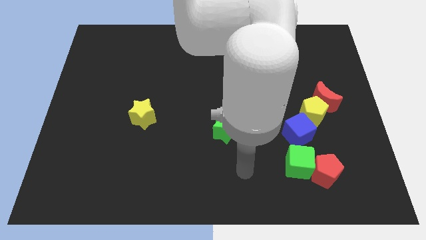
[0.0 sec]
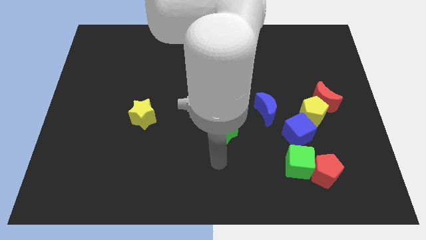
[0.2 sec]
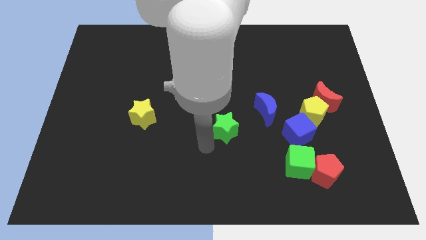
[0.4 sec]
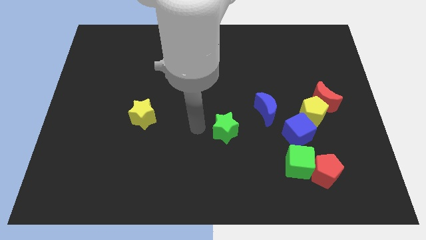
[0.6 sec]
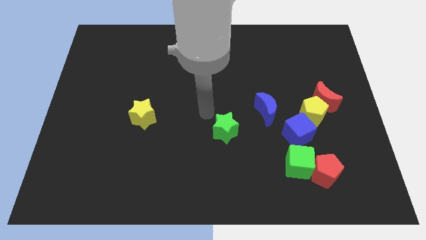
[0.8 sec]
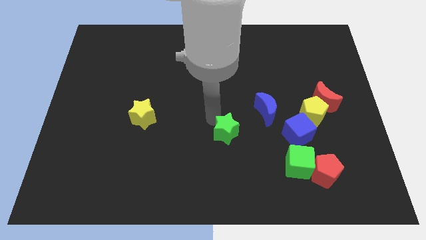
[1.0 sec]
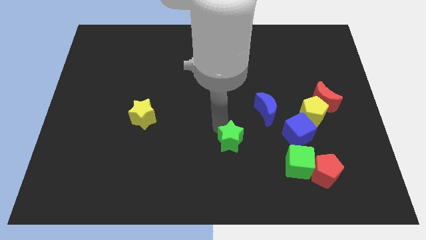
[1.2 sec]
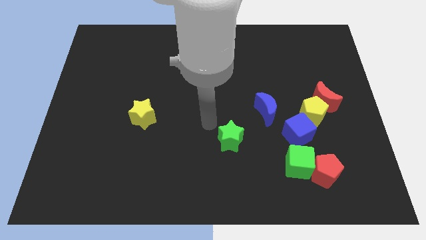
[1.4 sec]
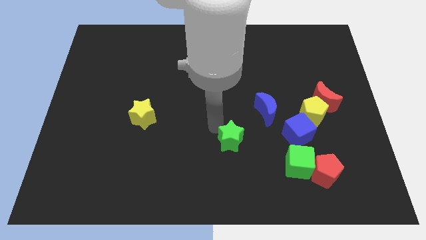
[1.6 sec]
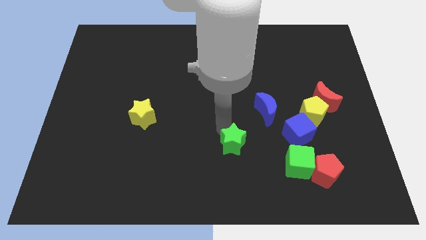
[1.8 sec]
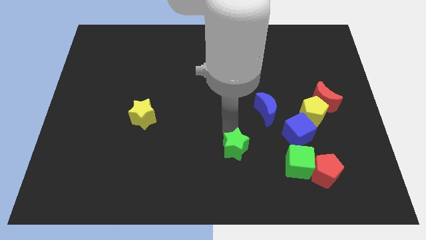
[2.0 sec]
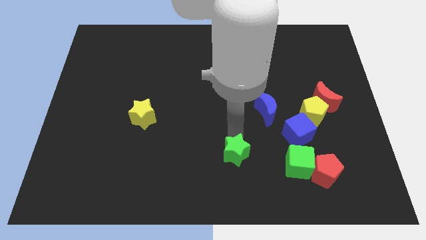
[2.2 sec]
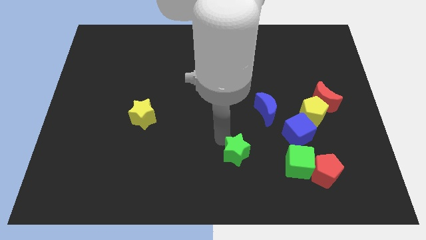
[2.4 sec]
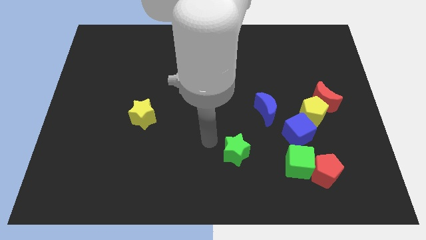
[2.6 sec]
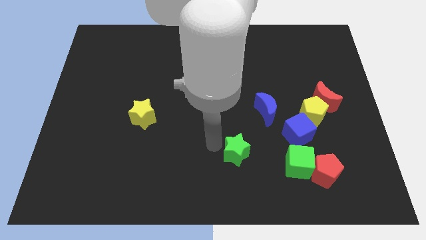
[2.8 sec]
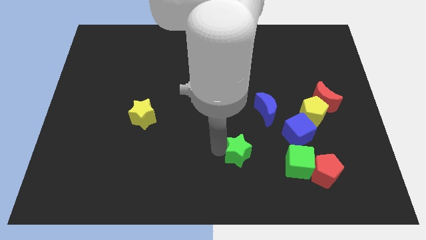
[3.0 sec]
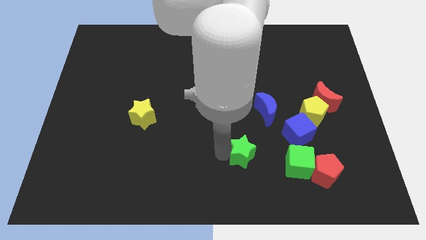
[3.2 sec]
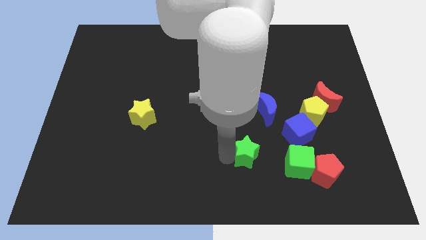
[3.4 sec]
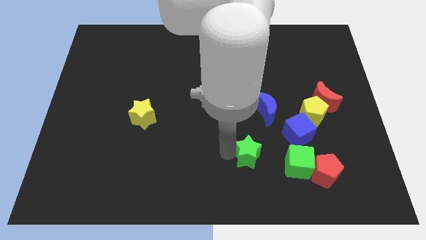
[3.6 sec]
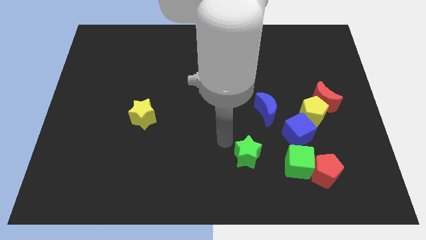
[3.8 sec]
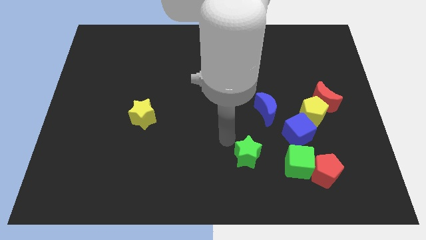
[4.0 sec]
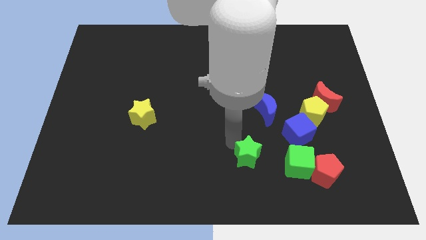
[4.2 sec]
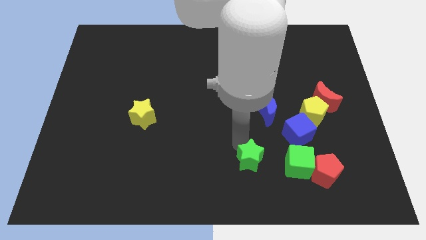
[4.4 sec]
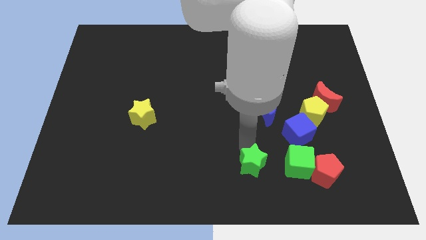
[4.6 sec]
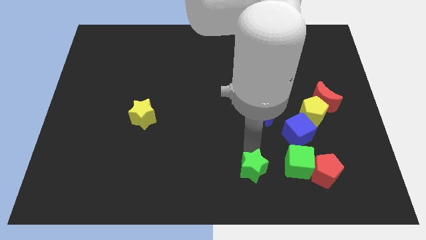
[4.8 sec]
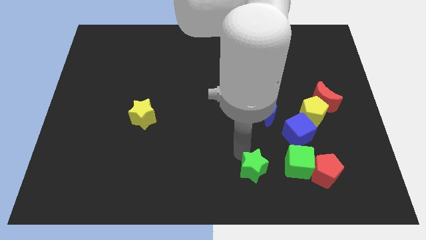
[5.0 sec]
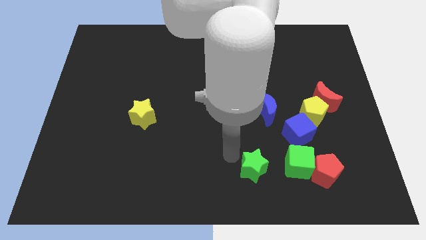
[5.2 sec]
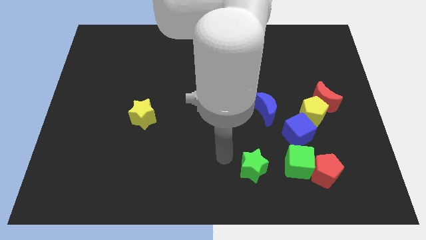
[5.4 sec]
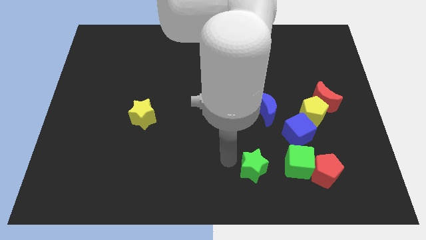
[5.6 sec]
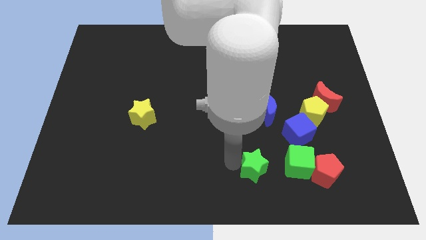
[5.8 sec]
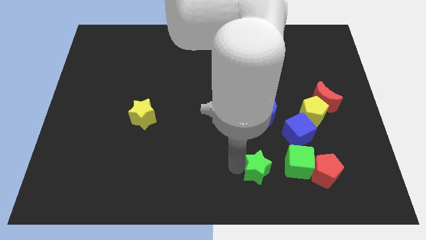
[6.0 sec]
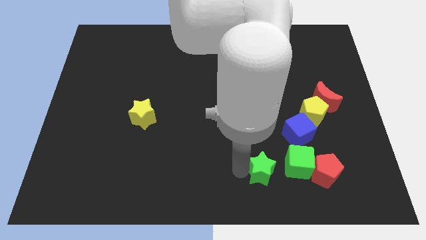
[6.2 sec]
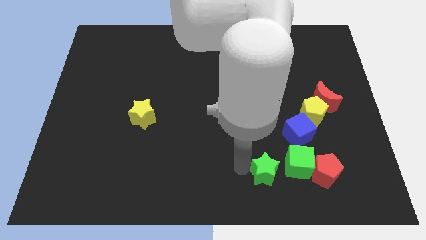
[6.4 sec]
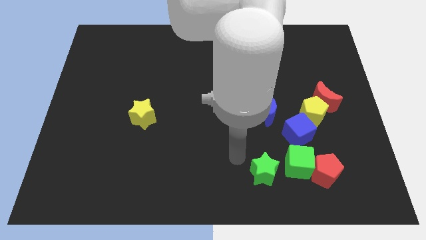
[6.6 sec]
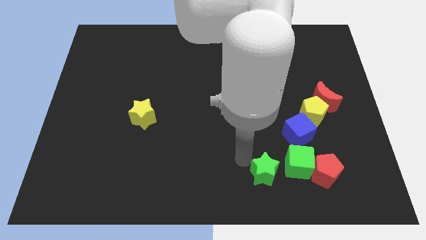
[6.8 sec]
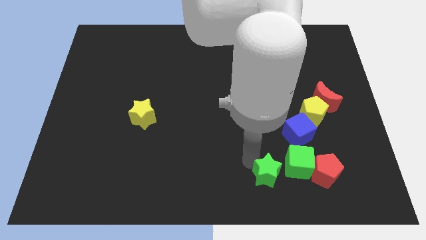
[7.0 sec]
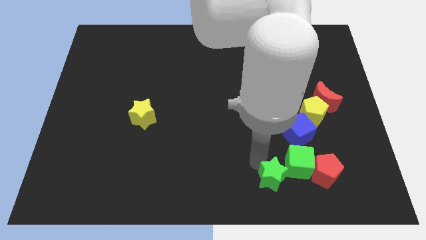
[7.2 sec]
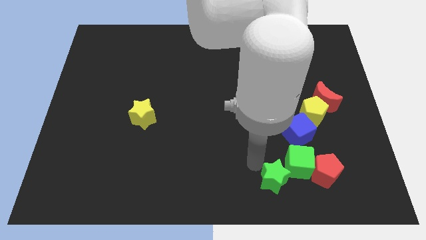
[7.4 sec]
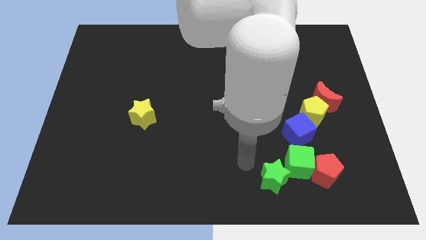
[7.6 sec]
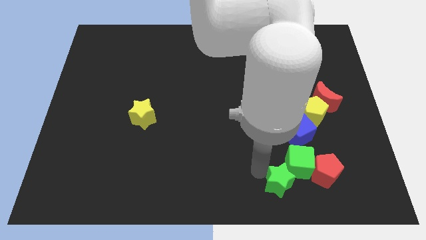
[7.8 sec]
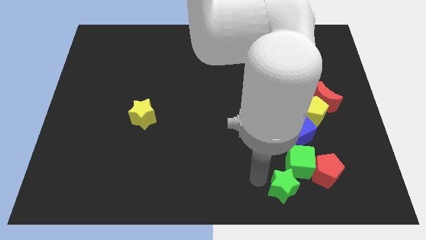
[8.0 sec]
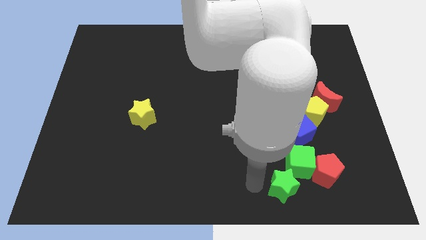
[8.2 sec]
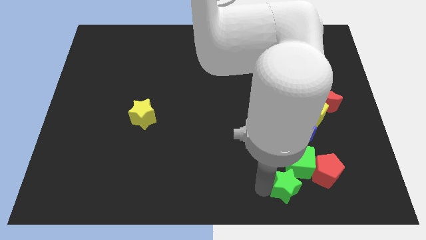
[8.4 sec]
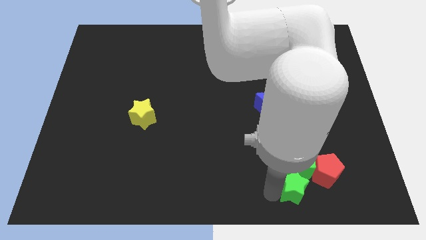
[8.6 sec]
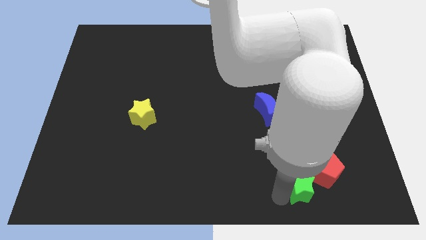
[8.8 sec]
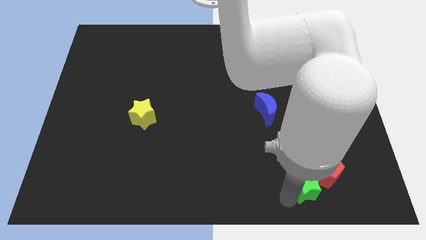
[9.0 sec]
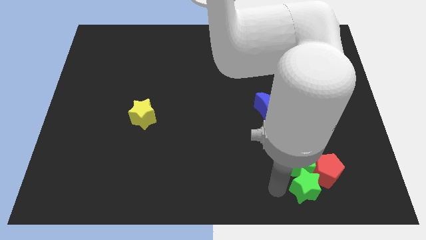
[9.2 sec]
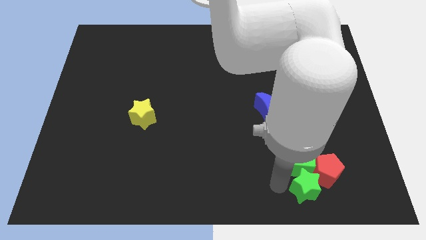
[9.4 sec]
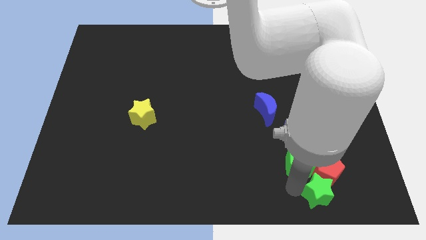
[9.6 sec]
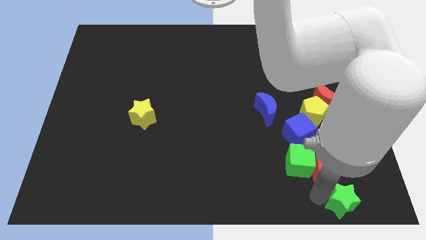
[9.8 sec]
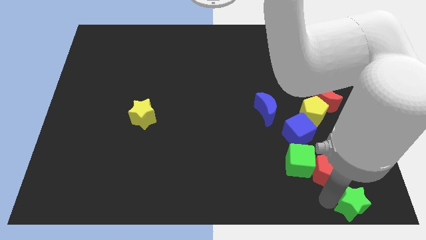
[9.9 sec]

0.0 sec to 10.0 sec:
put the green star to the bottom right of the board

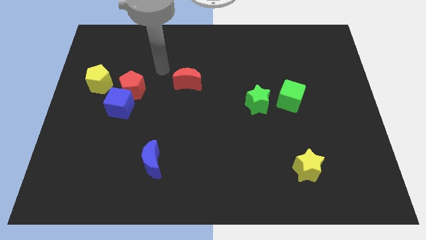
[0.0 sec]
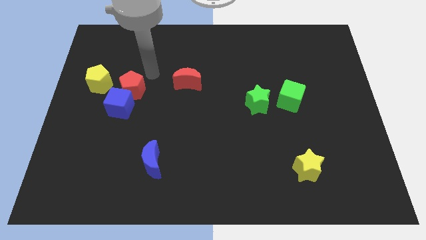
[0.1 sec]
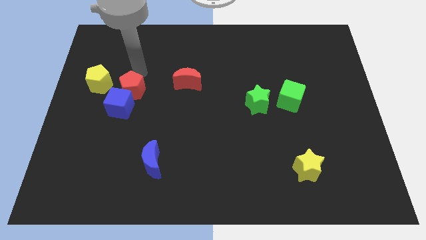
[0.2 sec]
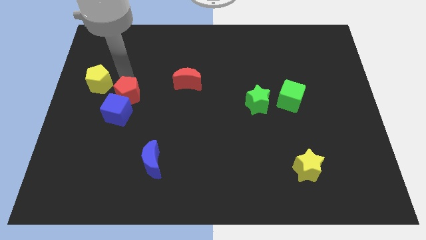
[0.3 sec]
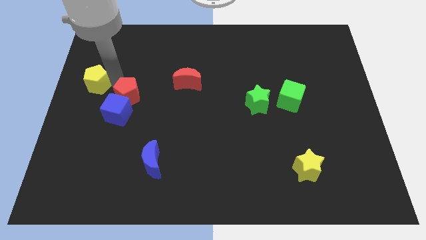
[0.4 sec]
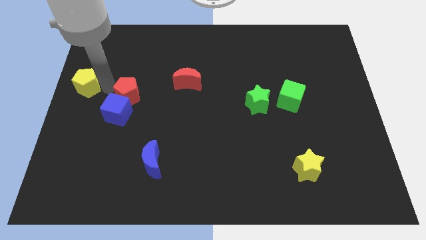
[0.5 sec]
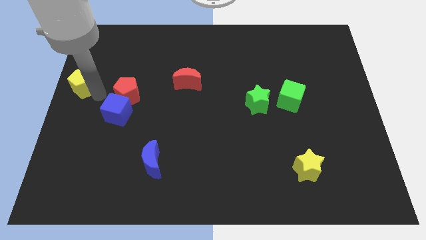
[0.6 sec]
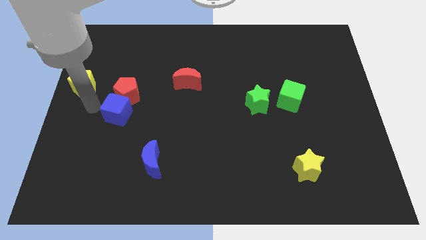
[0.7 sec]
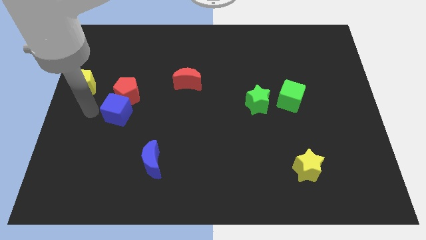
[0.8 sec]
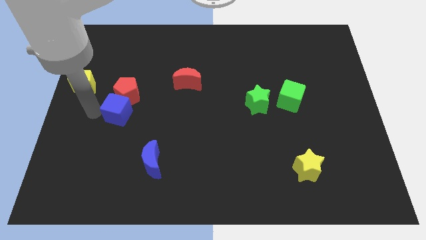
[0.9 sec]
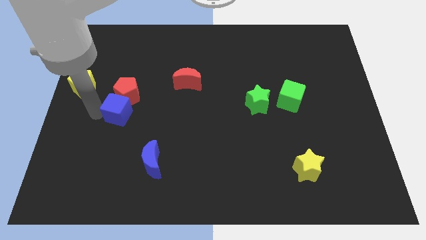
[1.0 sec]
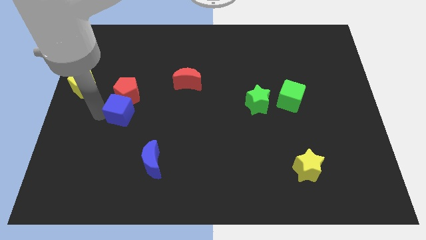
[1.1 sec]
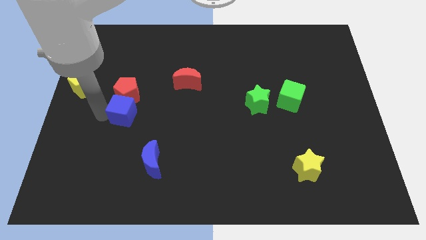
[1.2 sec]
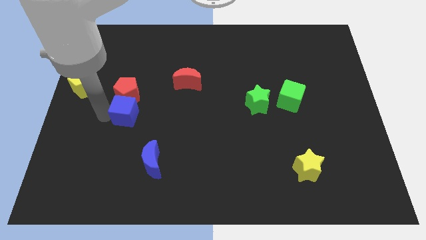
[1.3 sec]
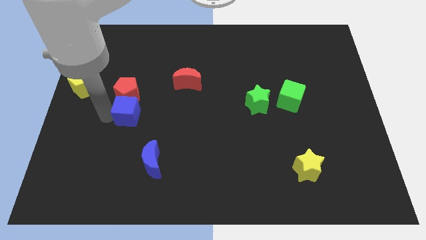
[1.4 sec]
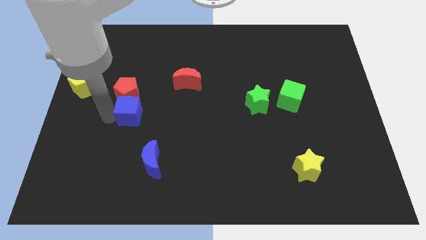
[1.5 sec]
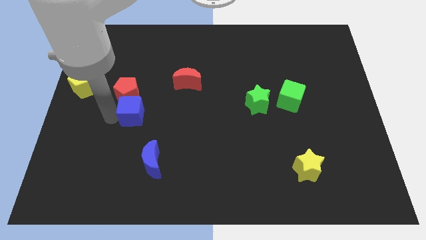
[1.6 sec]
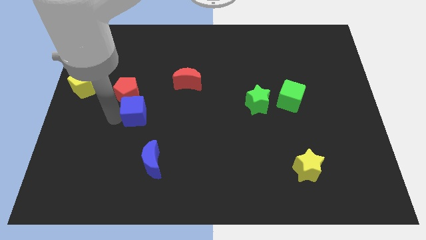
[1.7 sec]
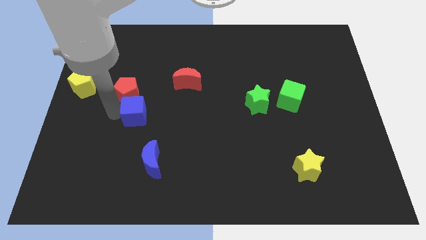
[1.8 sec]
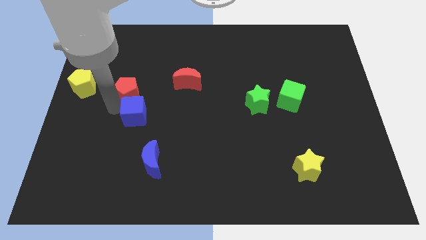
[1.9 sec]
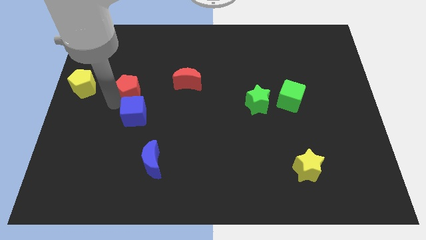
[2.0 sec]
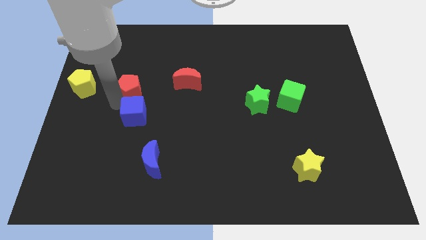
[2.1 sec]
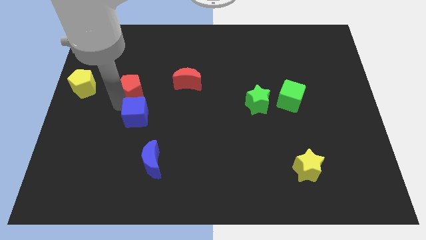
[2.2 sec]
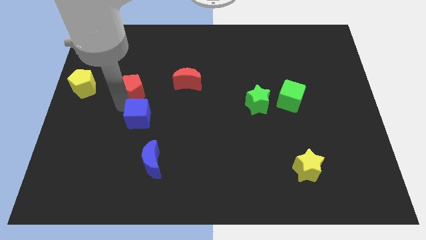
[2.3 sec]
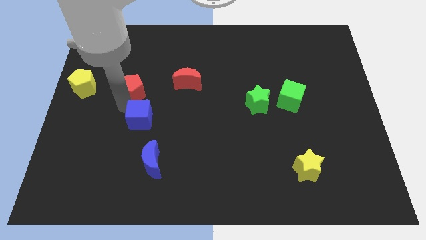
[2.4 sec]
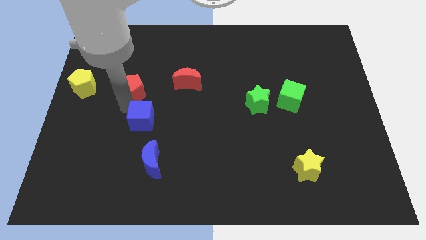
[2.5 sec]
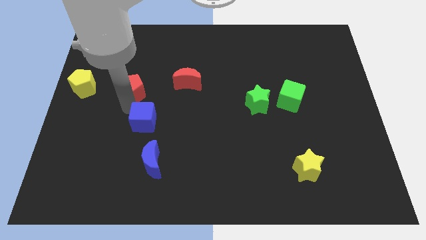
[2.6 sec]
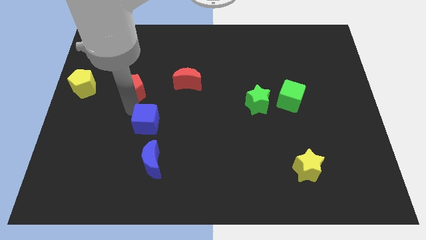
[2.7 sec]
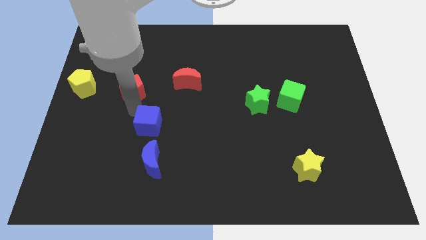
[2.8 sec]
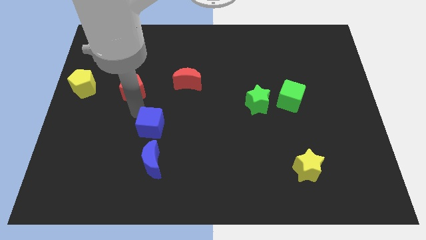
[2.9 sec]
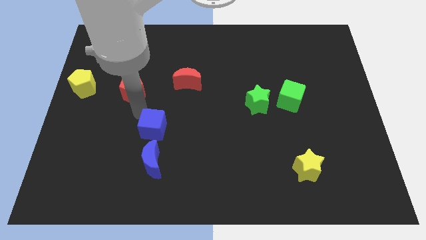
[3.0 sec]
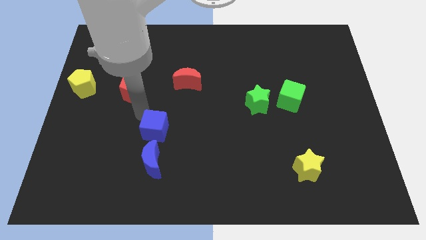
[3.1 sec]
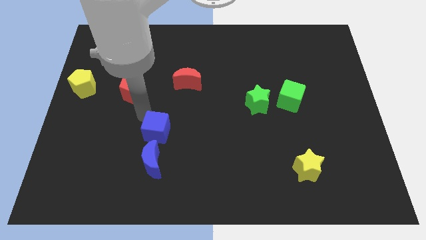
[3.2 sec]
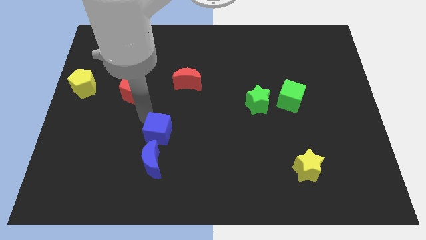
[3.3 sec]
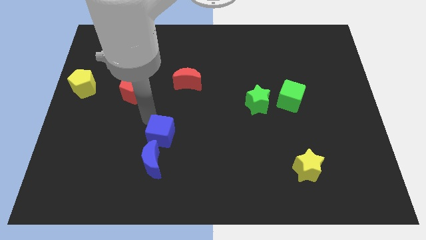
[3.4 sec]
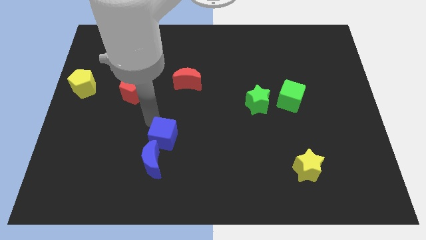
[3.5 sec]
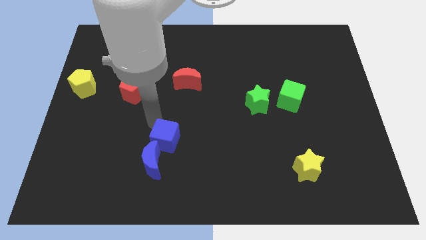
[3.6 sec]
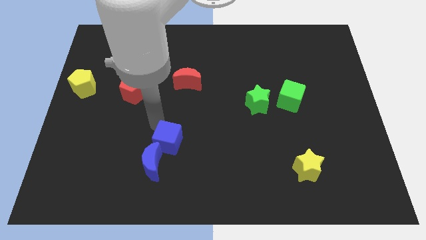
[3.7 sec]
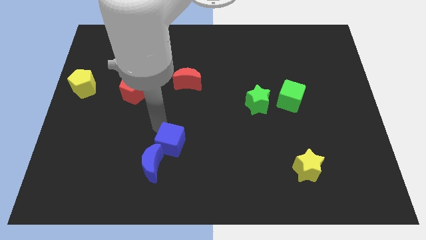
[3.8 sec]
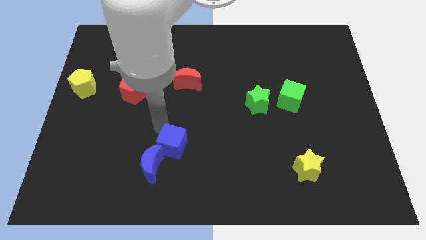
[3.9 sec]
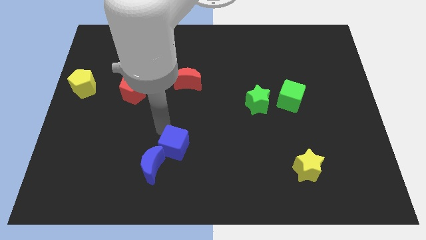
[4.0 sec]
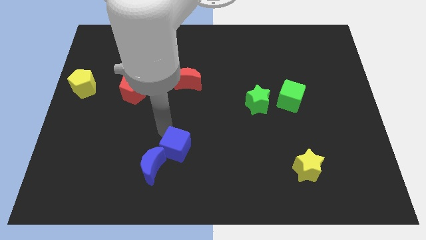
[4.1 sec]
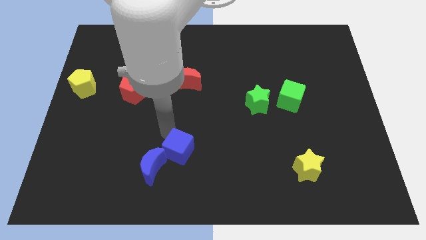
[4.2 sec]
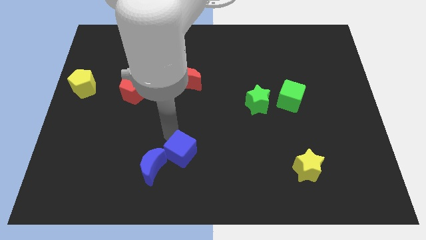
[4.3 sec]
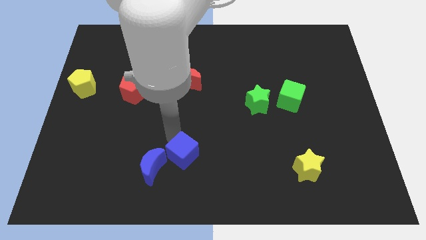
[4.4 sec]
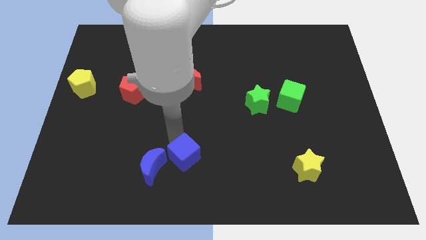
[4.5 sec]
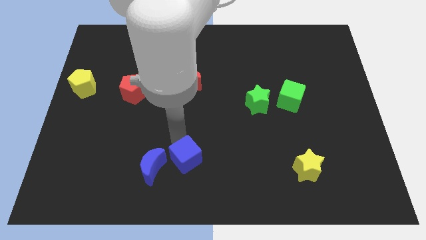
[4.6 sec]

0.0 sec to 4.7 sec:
move the blue cube to the bottom
